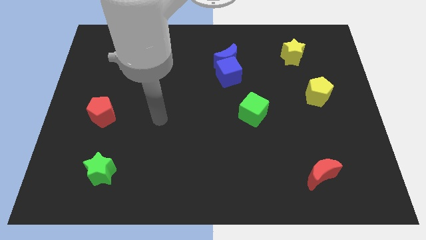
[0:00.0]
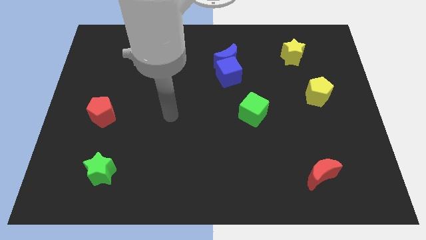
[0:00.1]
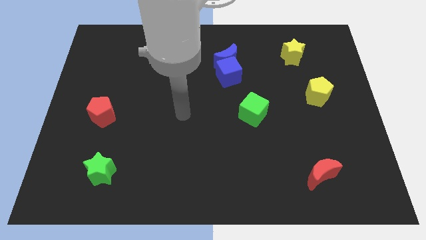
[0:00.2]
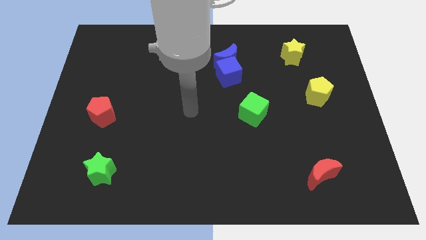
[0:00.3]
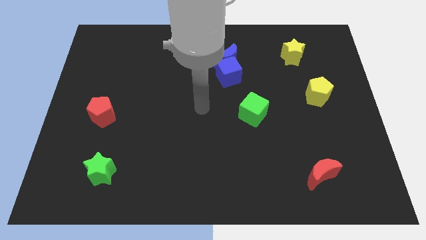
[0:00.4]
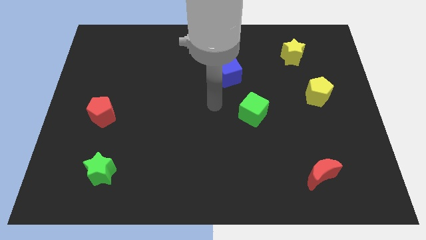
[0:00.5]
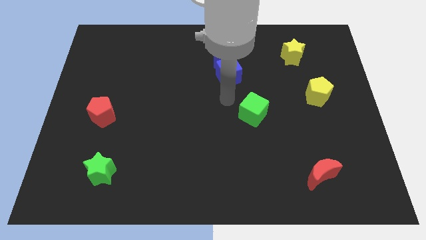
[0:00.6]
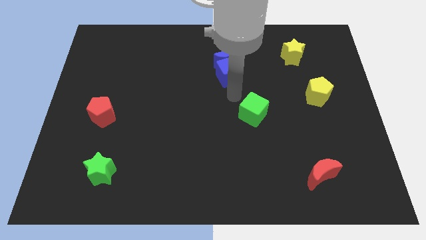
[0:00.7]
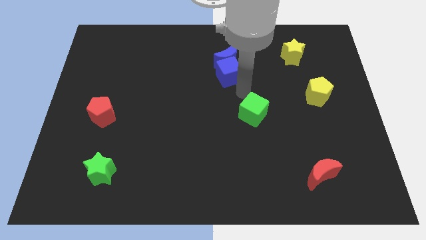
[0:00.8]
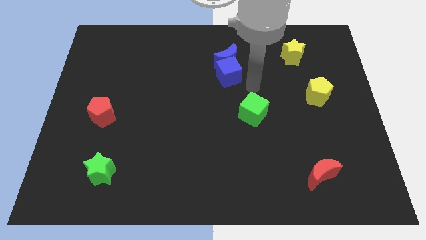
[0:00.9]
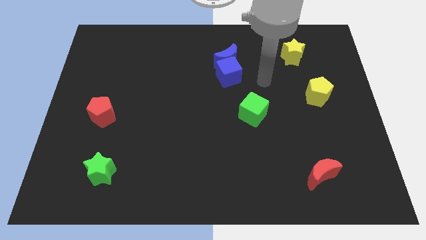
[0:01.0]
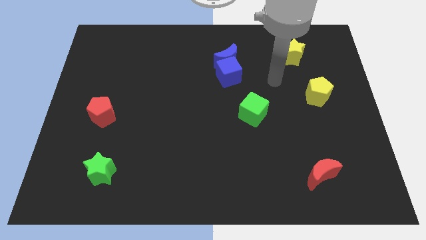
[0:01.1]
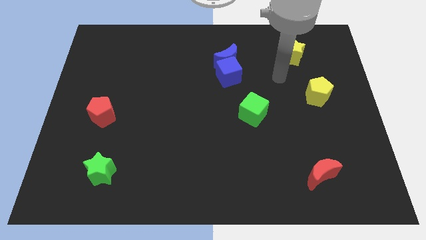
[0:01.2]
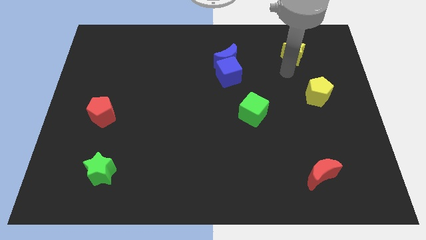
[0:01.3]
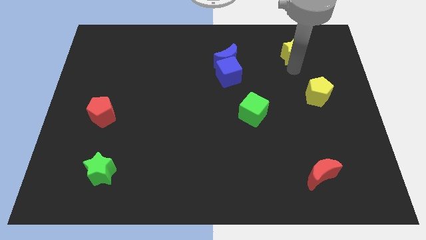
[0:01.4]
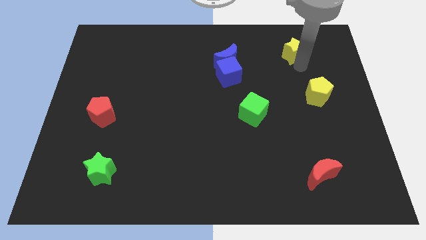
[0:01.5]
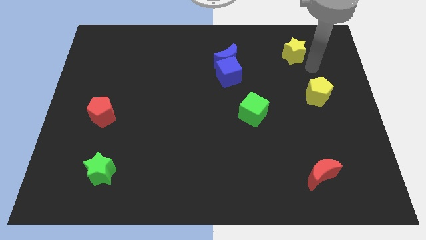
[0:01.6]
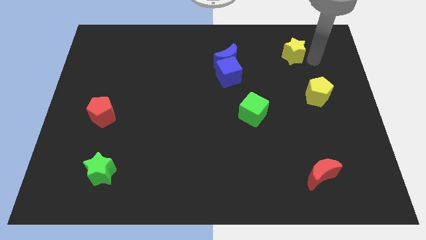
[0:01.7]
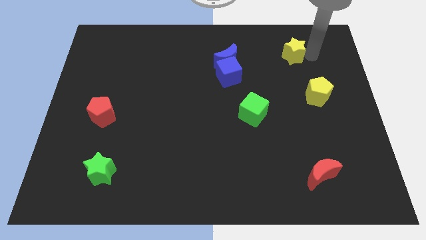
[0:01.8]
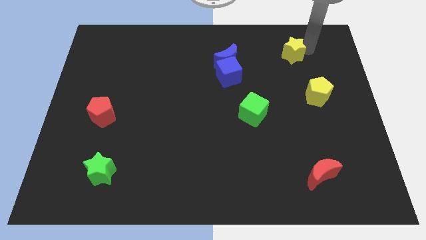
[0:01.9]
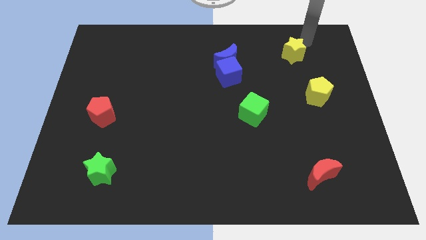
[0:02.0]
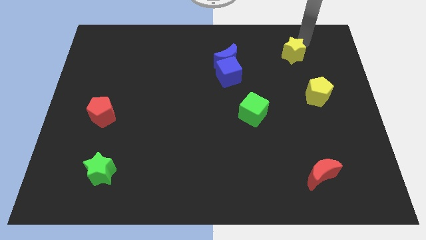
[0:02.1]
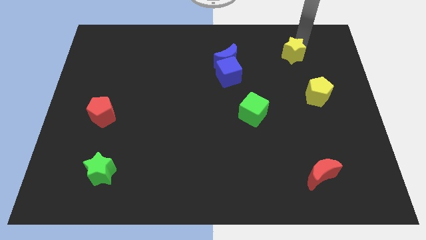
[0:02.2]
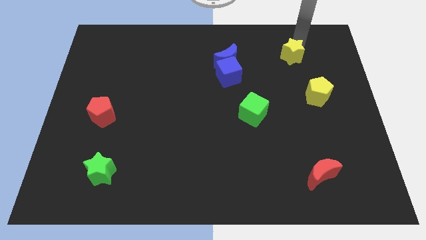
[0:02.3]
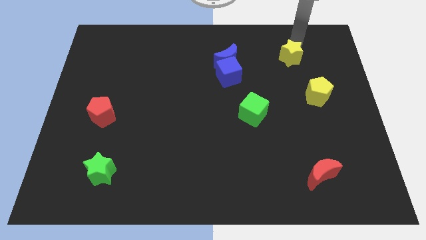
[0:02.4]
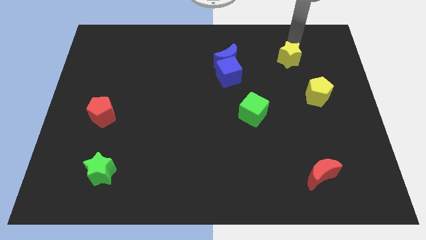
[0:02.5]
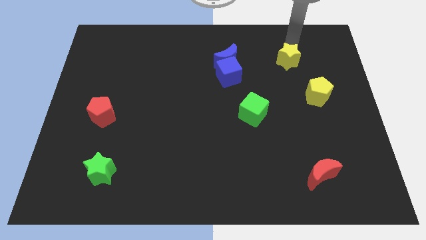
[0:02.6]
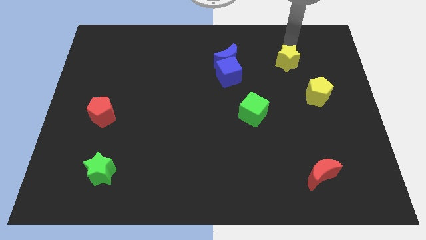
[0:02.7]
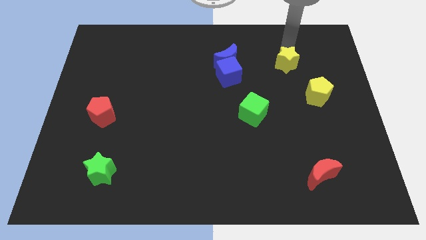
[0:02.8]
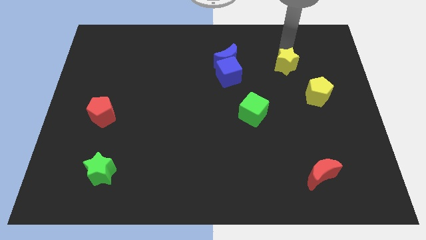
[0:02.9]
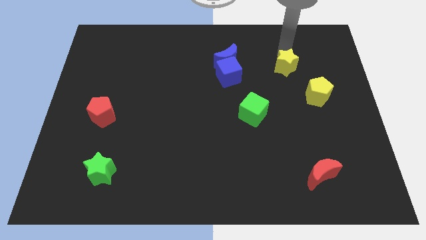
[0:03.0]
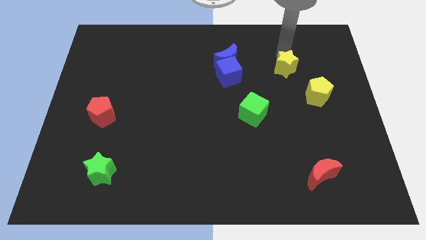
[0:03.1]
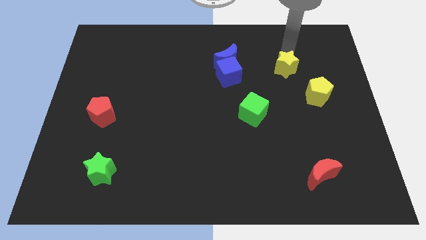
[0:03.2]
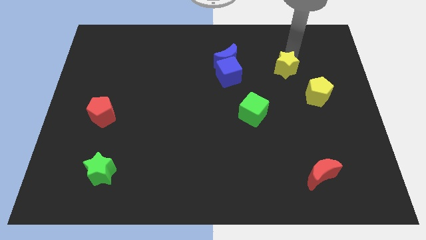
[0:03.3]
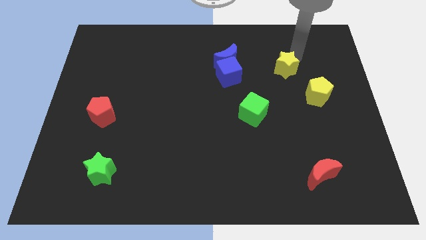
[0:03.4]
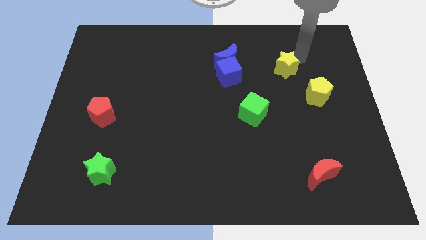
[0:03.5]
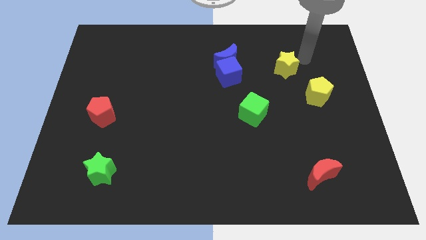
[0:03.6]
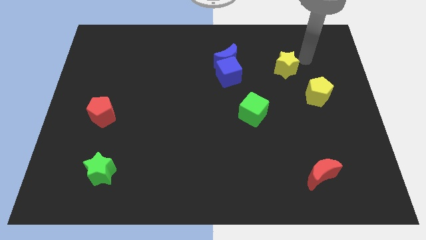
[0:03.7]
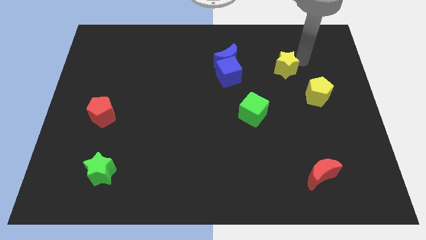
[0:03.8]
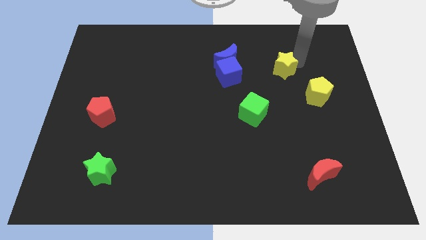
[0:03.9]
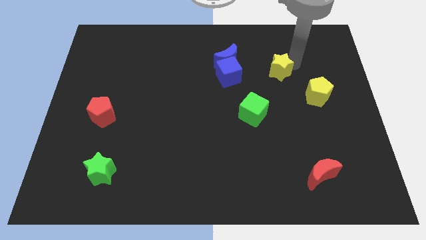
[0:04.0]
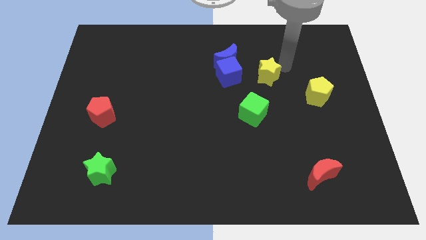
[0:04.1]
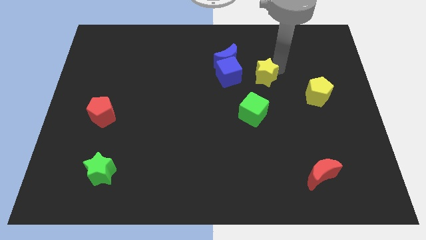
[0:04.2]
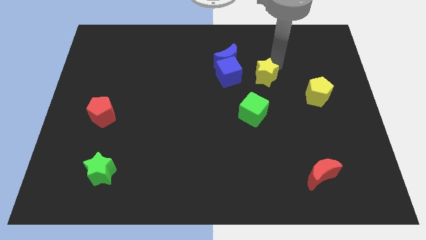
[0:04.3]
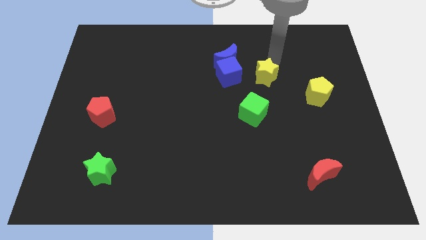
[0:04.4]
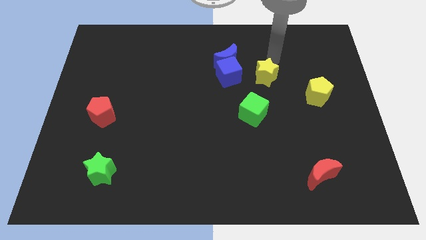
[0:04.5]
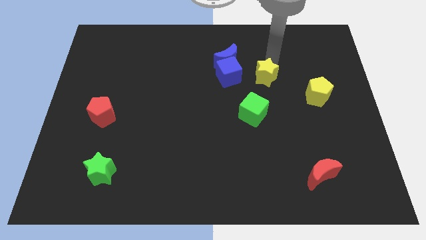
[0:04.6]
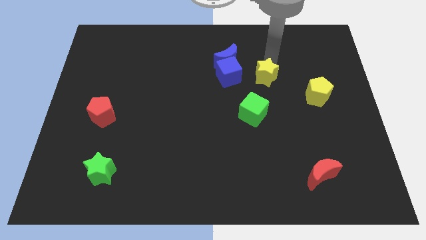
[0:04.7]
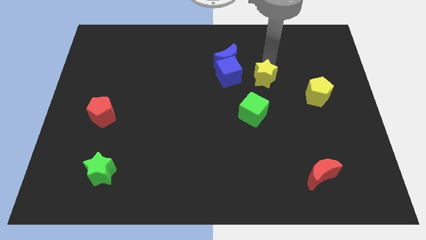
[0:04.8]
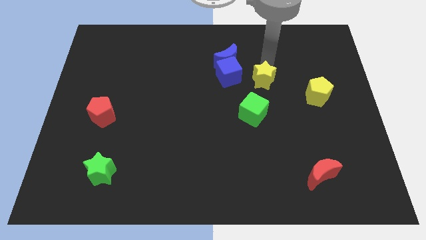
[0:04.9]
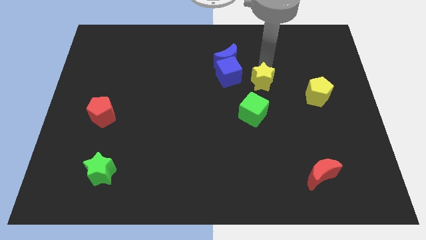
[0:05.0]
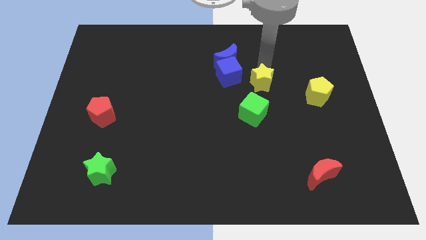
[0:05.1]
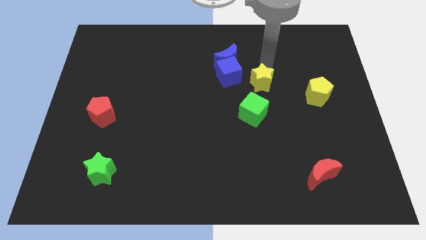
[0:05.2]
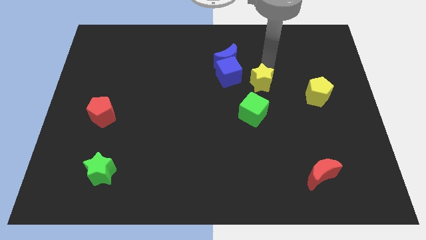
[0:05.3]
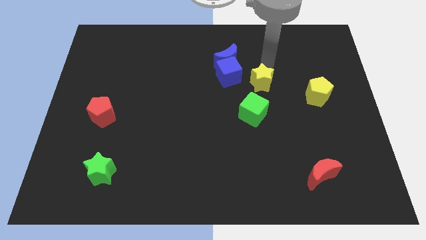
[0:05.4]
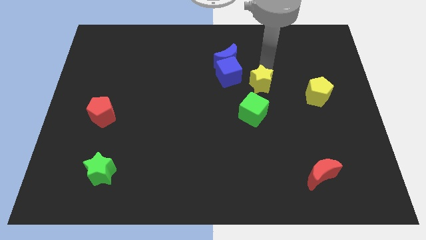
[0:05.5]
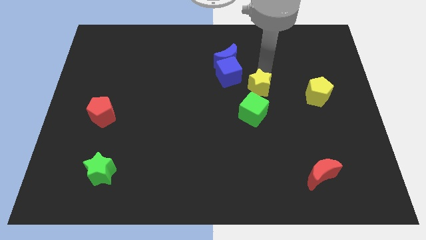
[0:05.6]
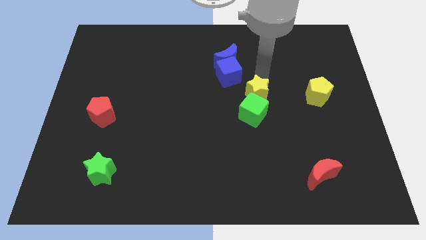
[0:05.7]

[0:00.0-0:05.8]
put the yellow star towards the green cube

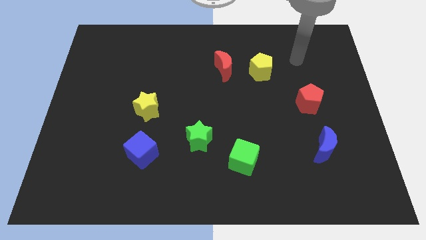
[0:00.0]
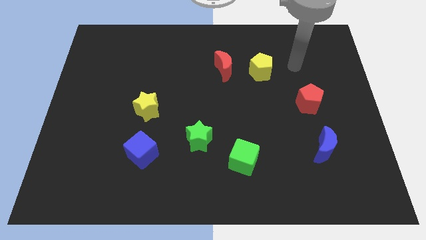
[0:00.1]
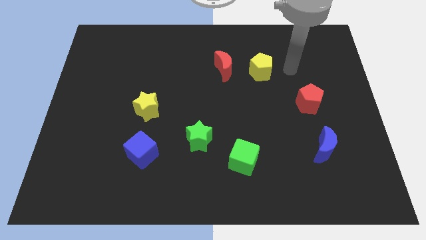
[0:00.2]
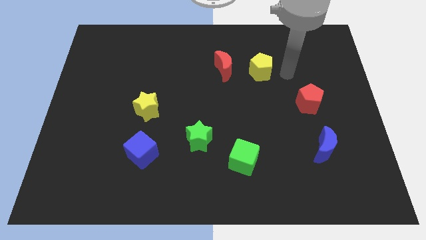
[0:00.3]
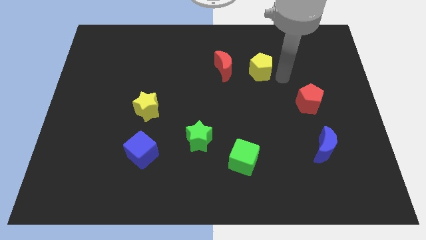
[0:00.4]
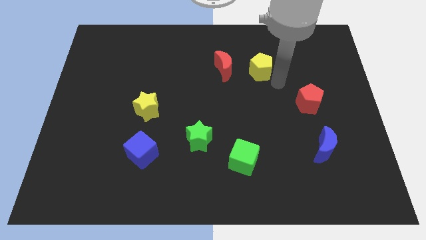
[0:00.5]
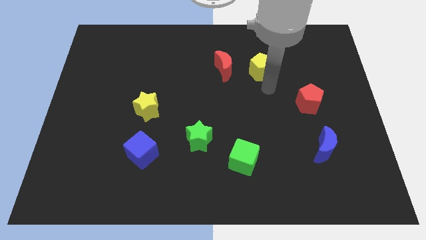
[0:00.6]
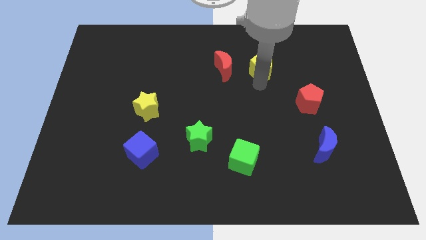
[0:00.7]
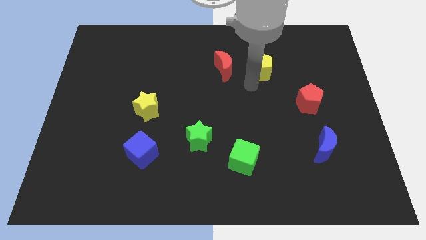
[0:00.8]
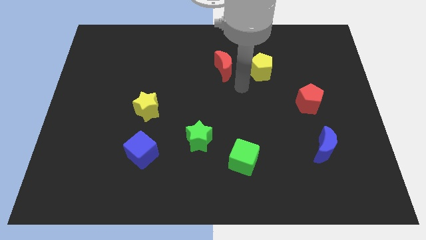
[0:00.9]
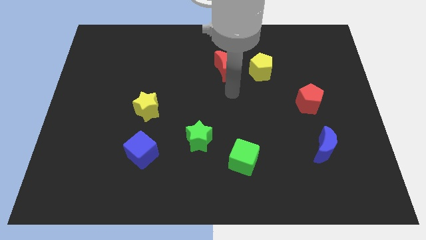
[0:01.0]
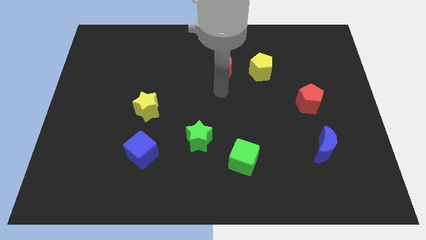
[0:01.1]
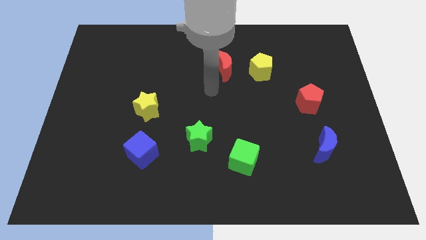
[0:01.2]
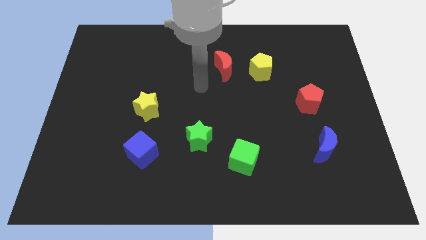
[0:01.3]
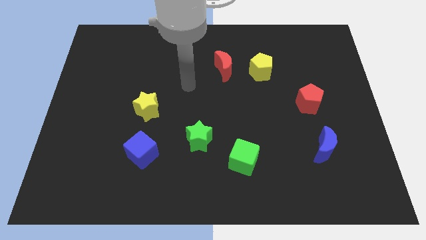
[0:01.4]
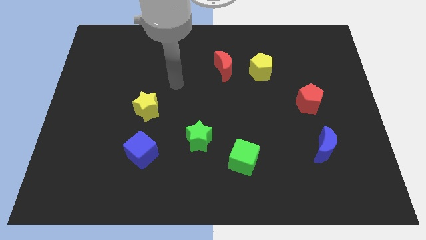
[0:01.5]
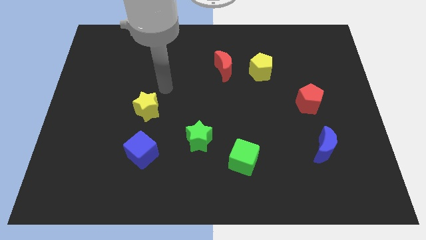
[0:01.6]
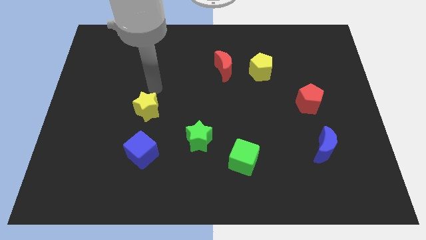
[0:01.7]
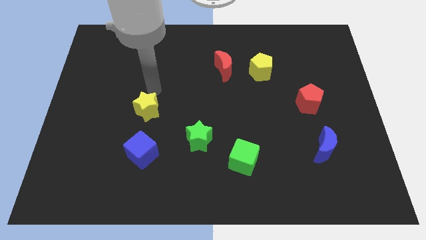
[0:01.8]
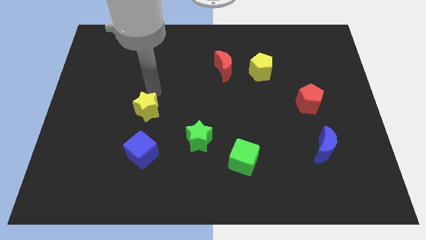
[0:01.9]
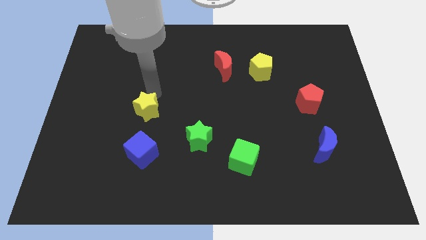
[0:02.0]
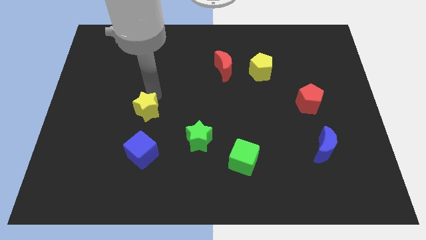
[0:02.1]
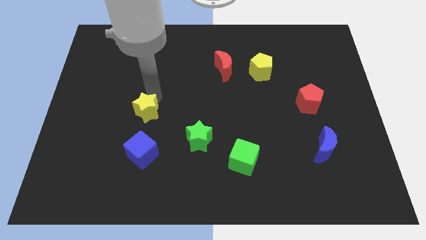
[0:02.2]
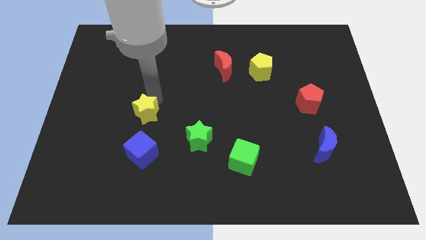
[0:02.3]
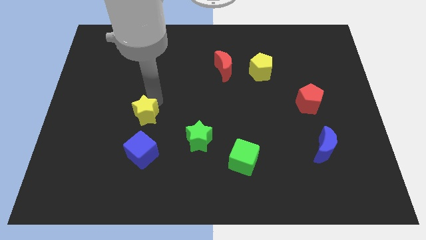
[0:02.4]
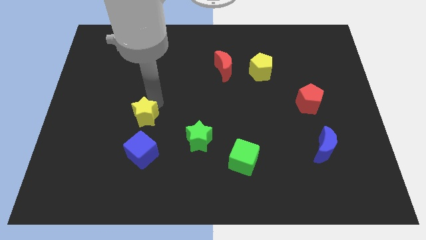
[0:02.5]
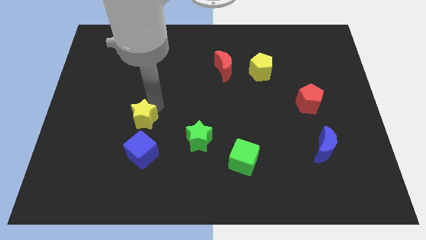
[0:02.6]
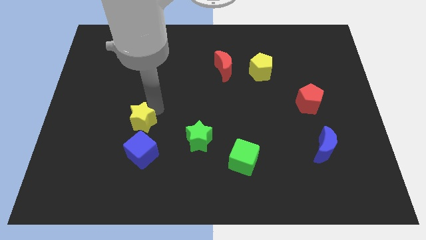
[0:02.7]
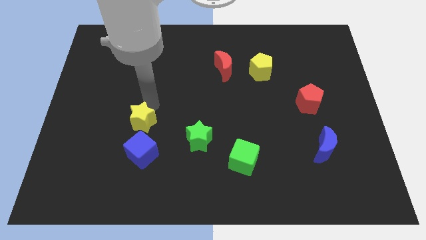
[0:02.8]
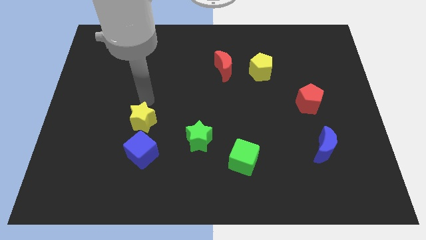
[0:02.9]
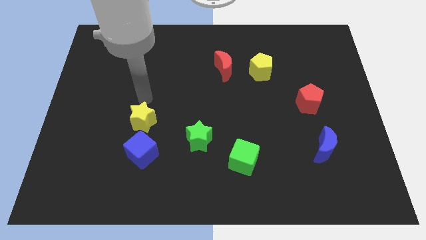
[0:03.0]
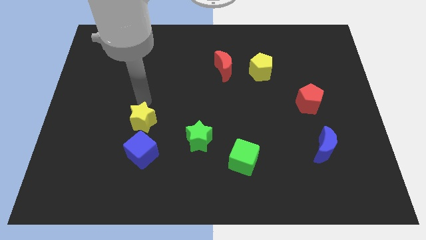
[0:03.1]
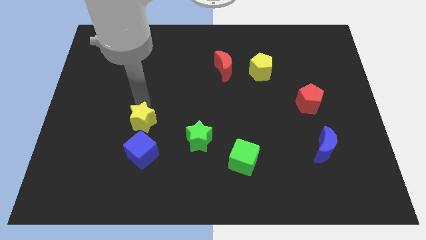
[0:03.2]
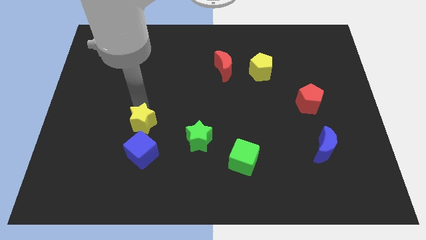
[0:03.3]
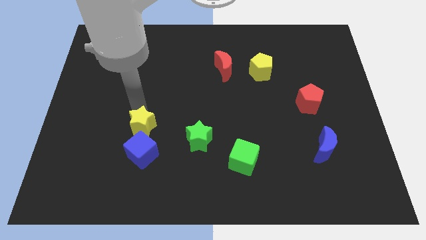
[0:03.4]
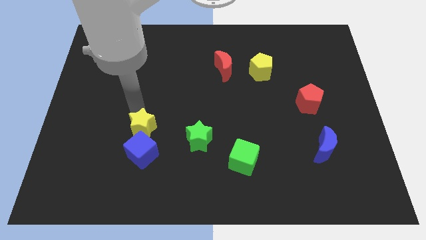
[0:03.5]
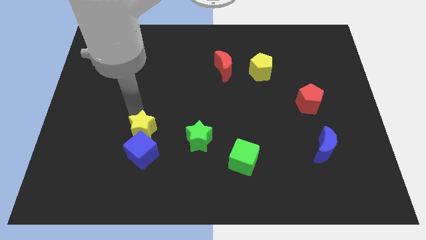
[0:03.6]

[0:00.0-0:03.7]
push the yellow star to the blue cube
